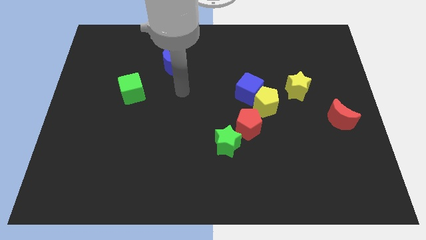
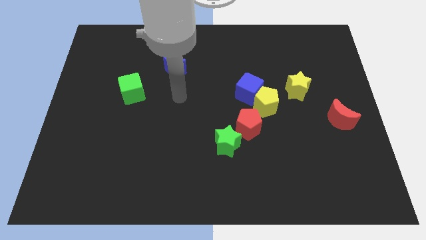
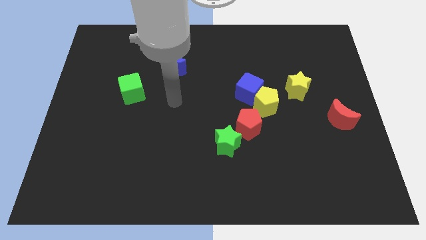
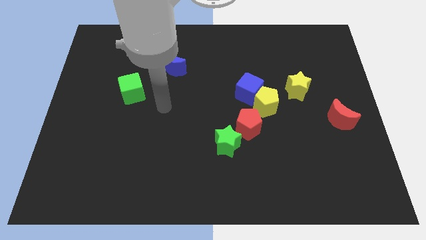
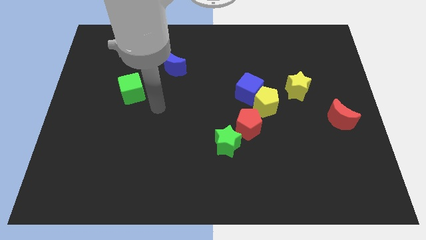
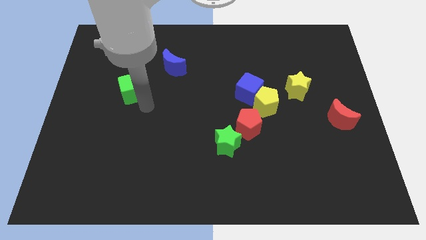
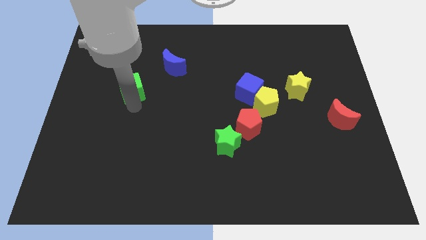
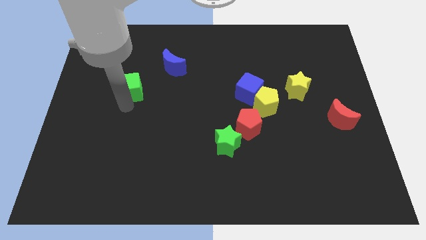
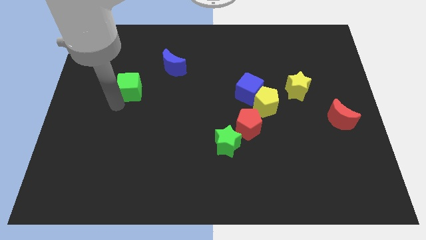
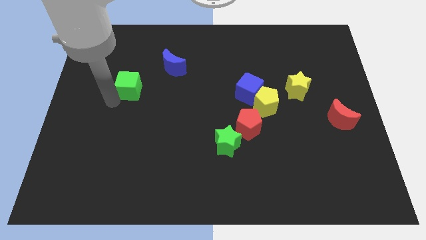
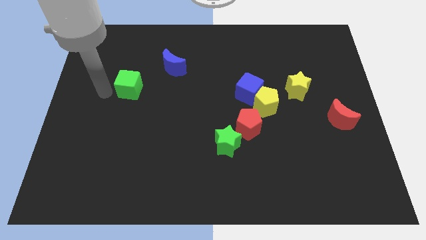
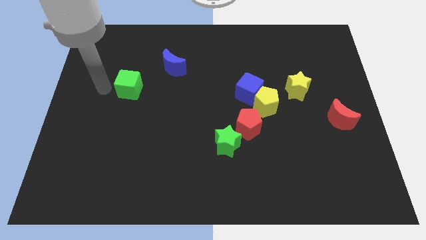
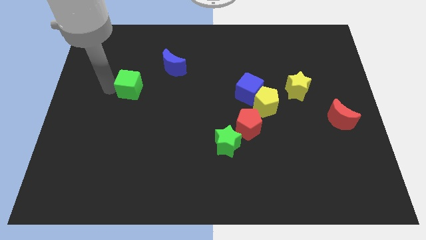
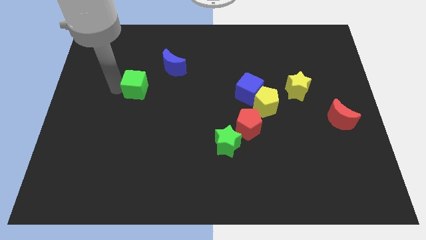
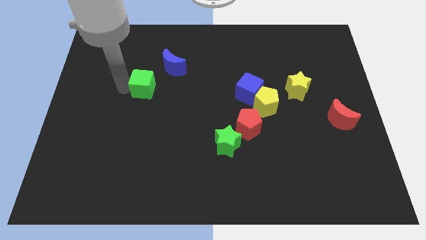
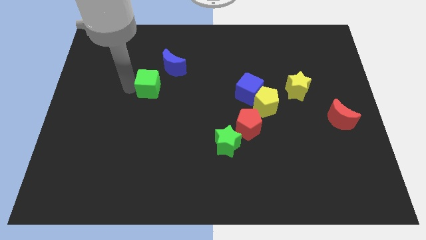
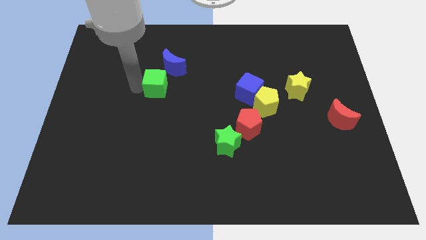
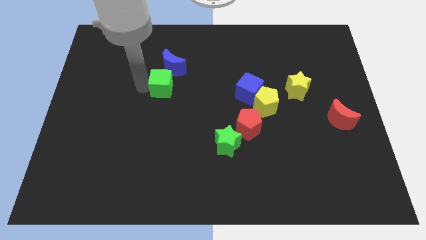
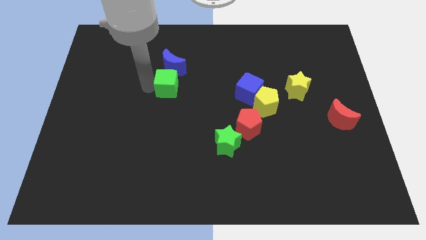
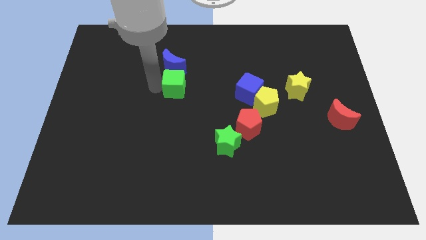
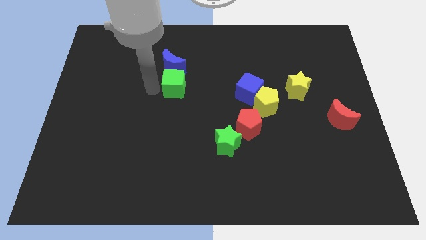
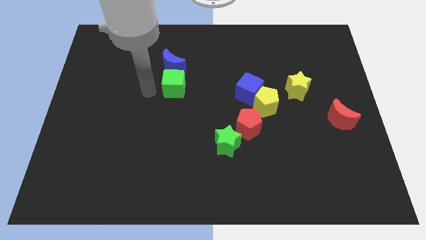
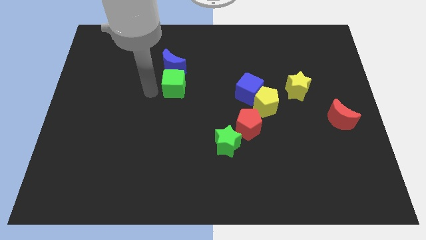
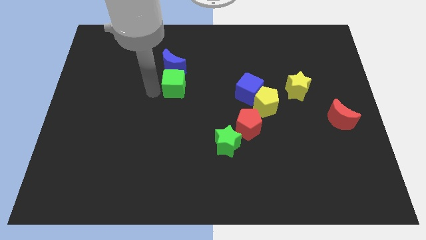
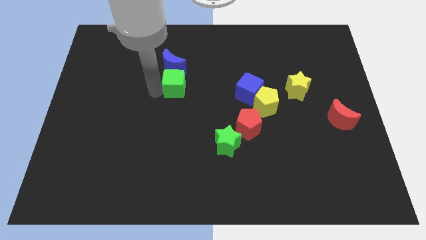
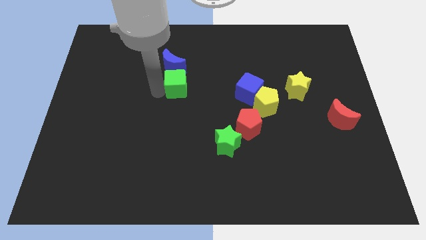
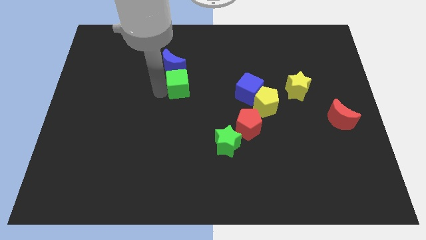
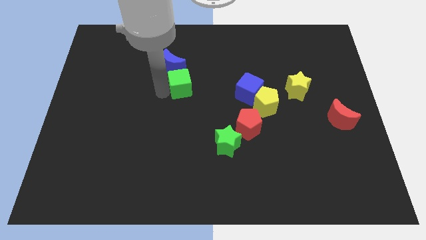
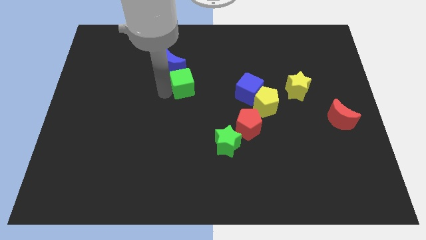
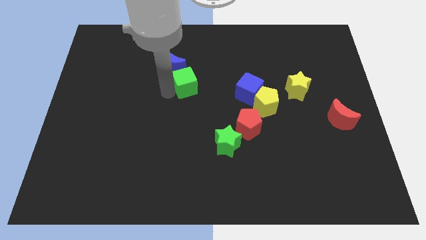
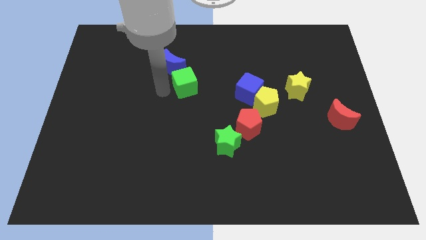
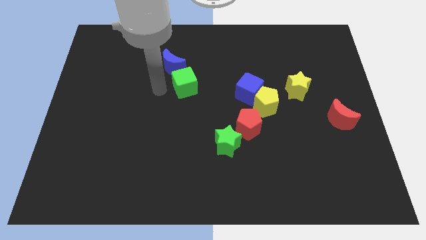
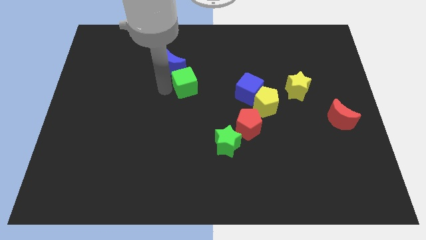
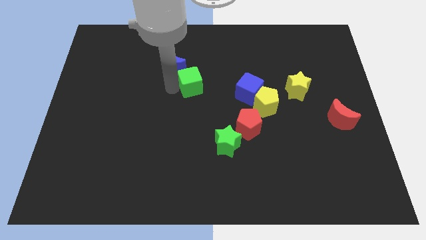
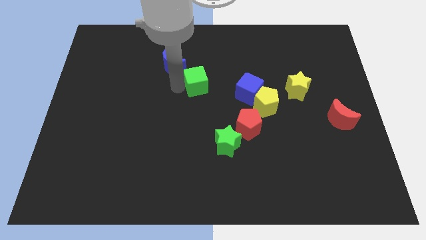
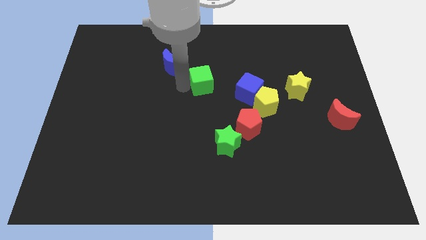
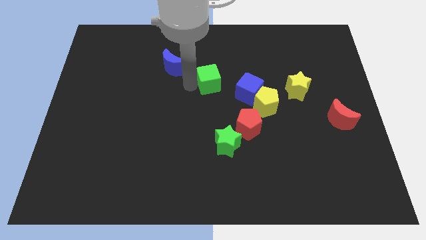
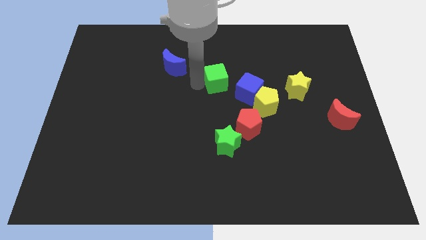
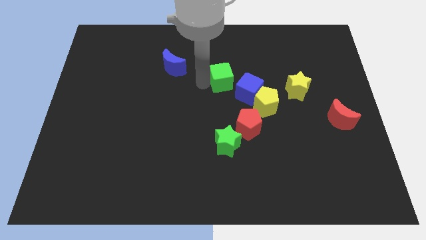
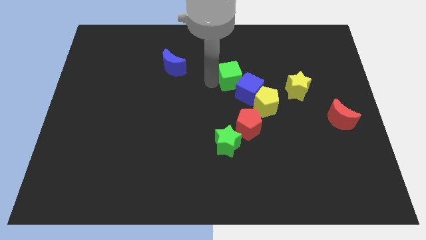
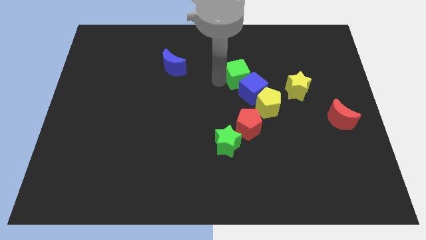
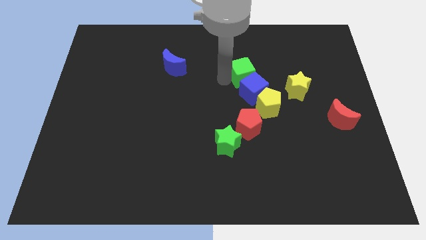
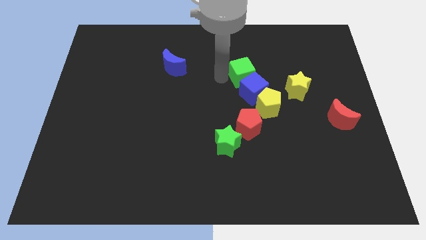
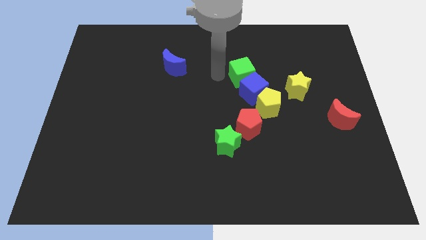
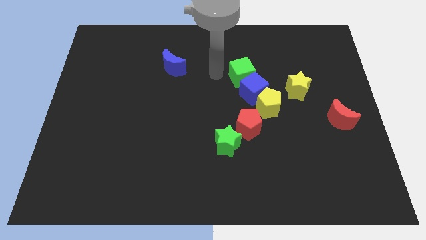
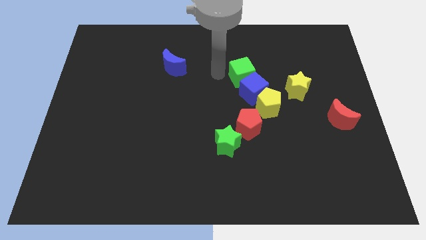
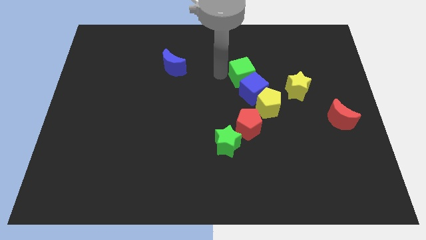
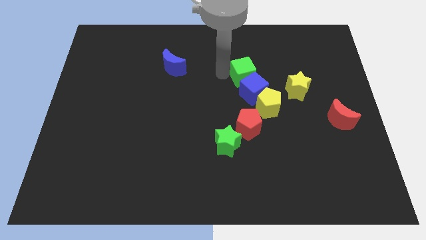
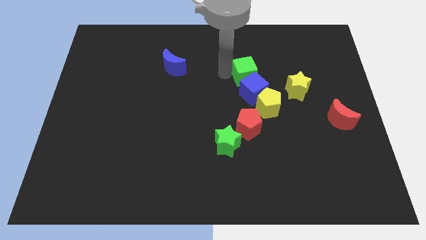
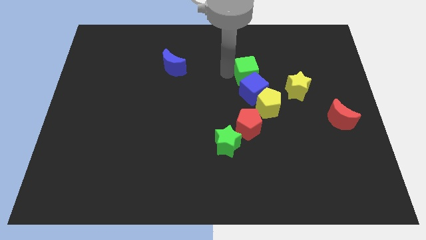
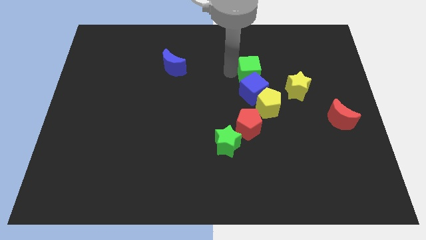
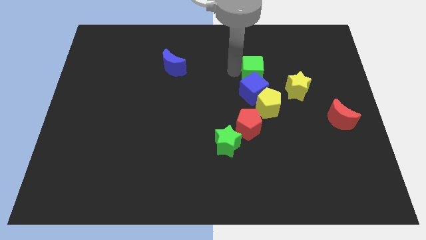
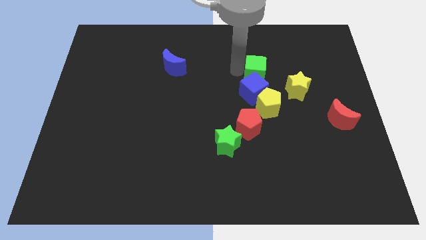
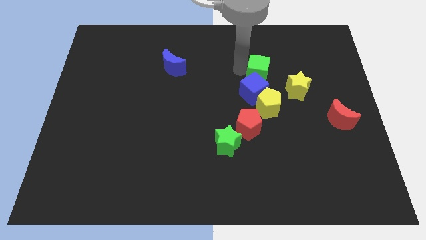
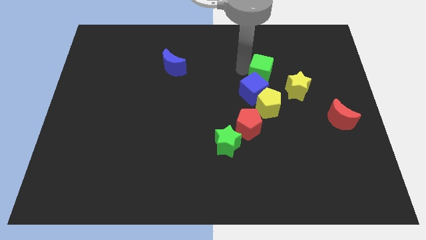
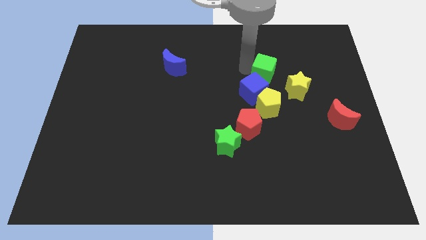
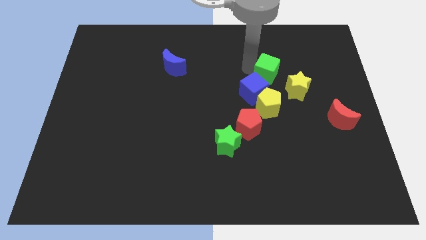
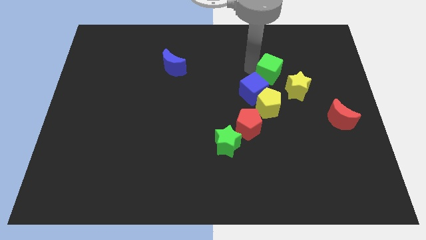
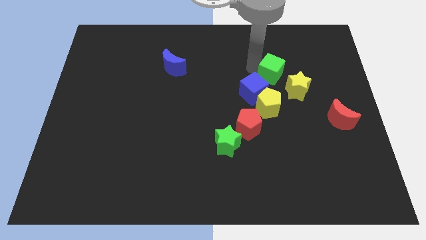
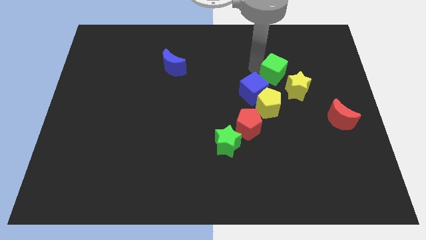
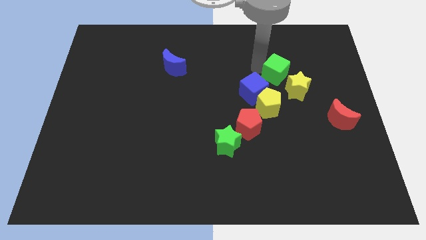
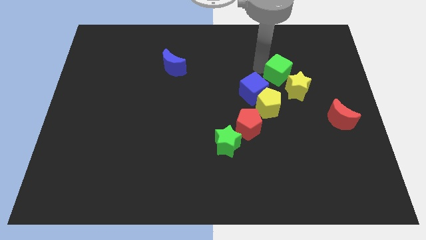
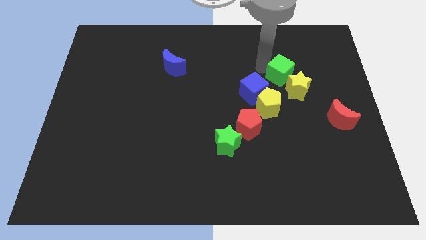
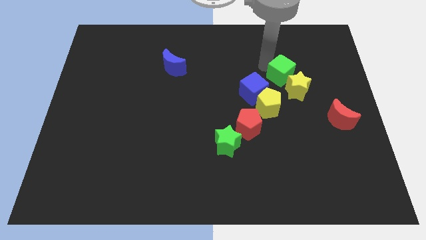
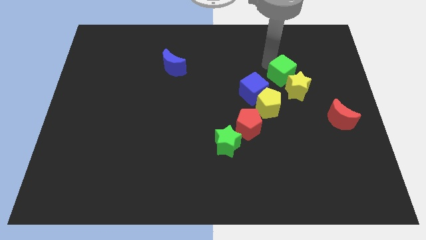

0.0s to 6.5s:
move the green cube close to the yellow star
